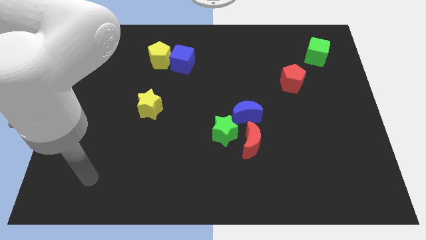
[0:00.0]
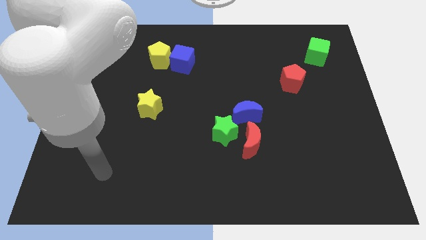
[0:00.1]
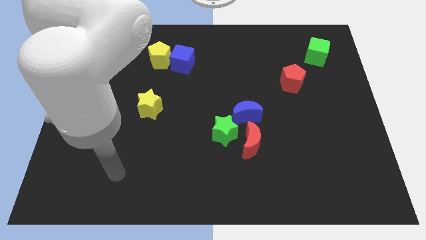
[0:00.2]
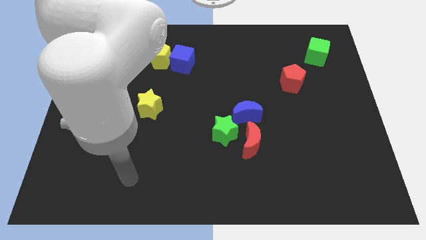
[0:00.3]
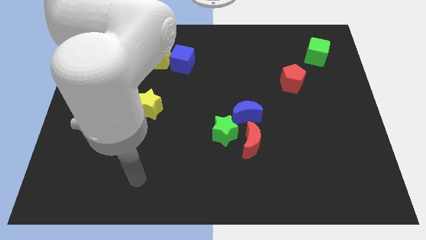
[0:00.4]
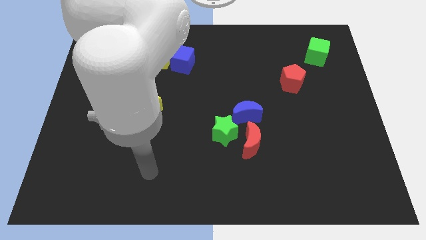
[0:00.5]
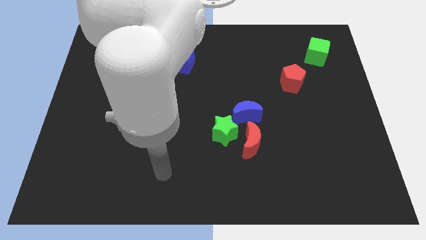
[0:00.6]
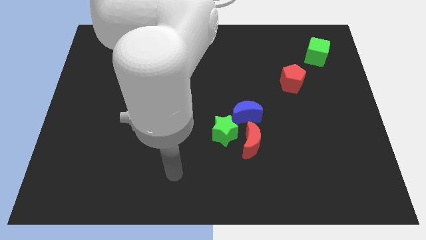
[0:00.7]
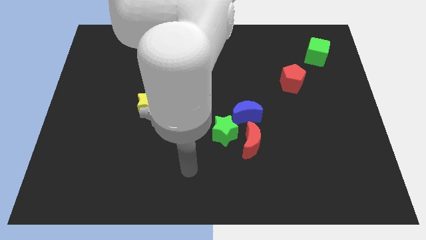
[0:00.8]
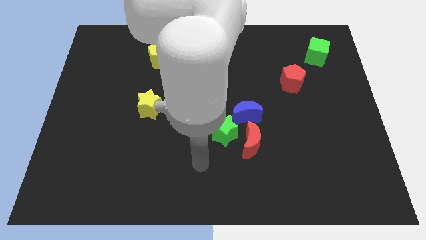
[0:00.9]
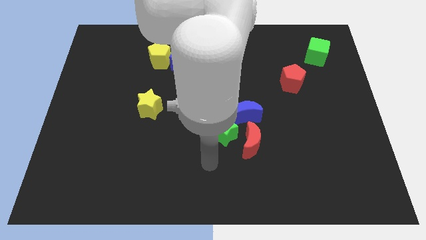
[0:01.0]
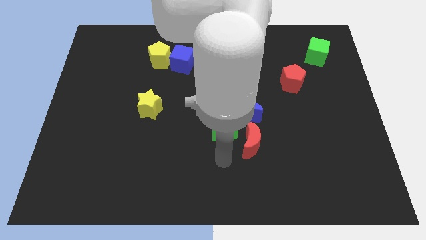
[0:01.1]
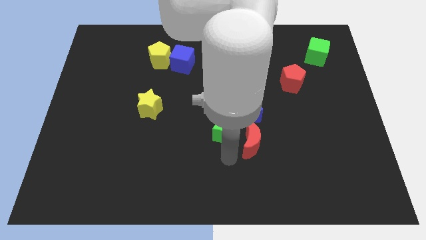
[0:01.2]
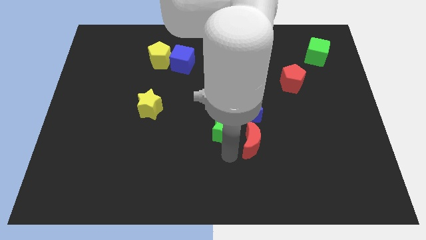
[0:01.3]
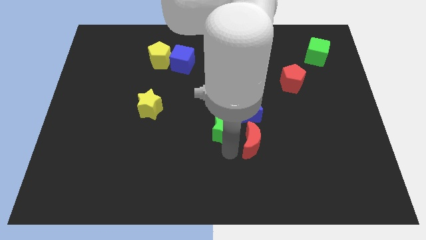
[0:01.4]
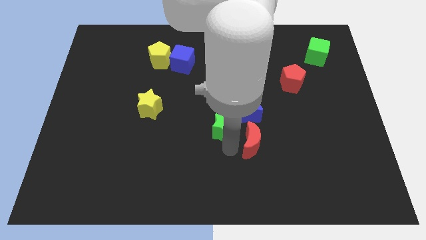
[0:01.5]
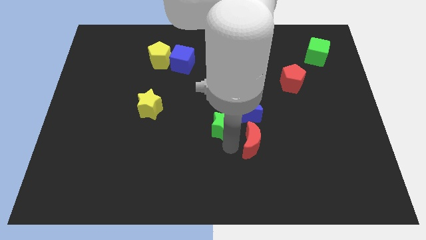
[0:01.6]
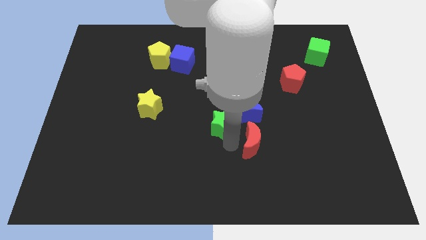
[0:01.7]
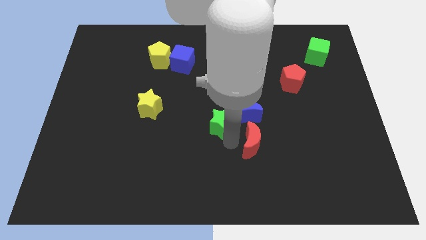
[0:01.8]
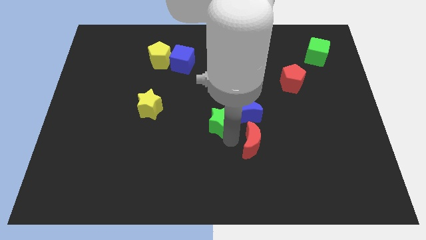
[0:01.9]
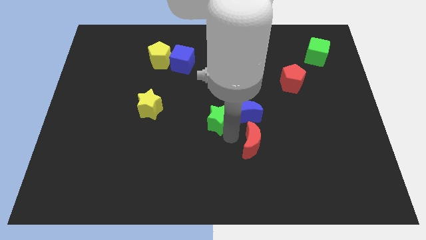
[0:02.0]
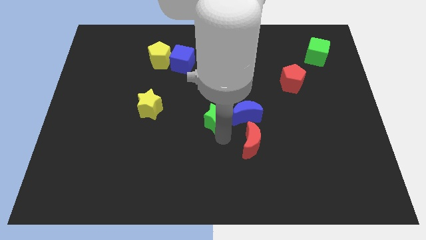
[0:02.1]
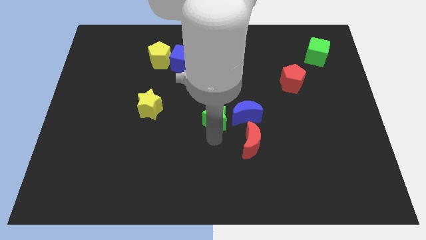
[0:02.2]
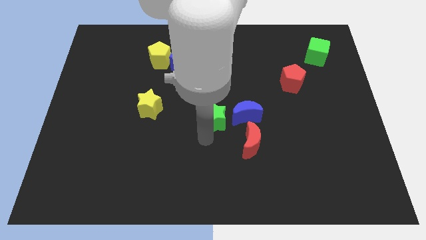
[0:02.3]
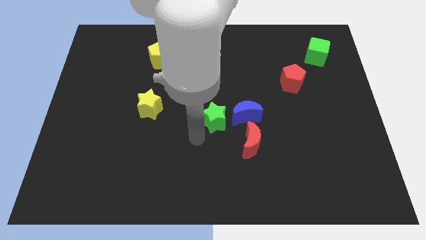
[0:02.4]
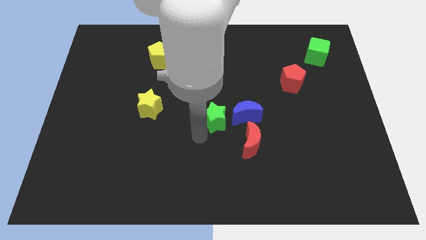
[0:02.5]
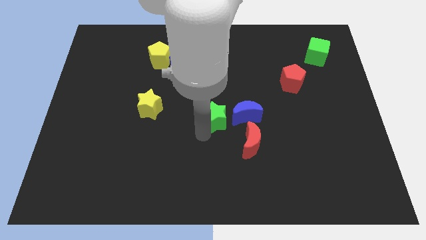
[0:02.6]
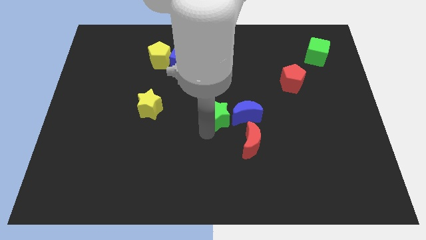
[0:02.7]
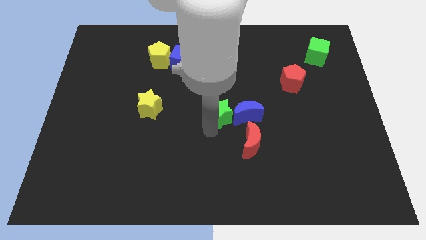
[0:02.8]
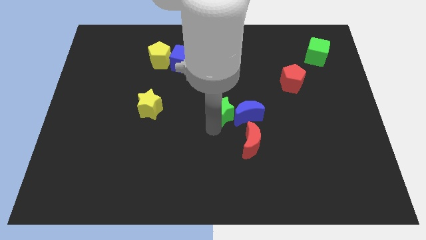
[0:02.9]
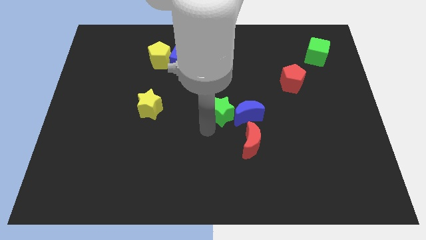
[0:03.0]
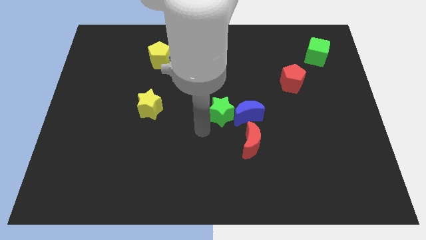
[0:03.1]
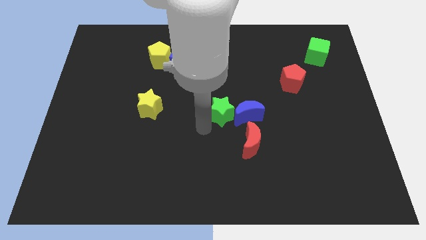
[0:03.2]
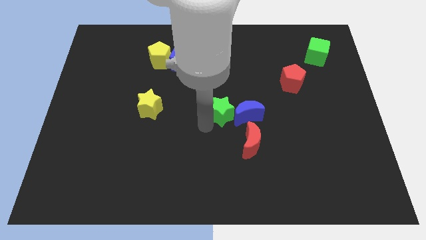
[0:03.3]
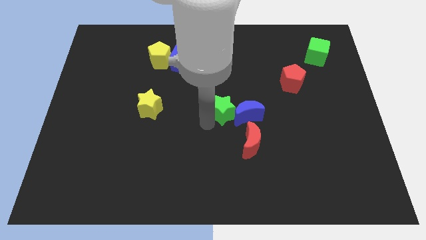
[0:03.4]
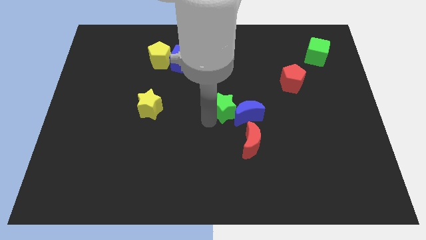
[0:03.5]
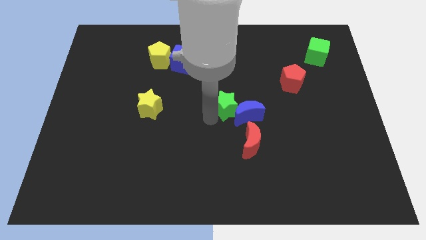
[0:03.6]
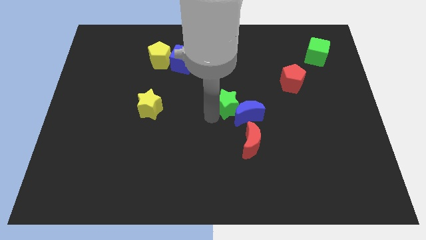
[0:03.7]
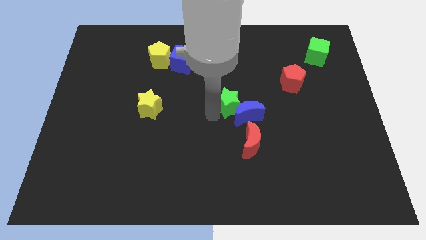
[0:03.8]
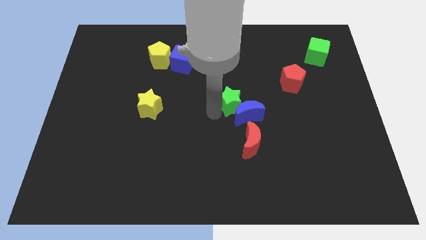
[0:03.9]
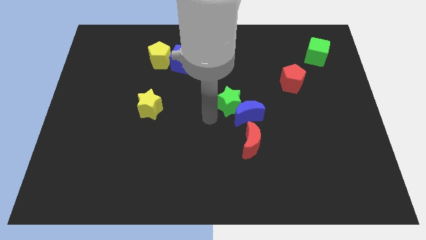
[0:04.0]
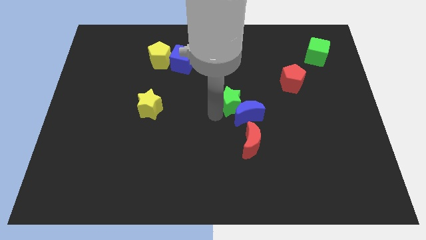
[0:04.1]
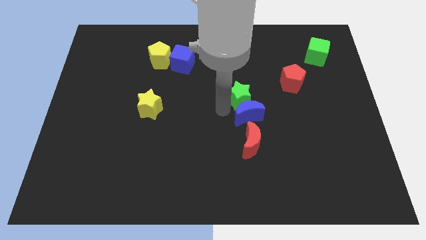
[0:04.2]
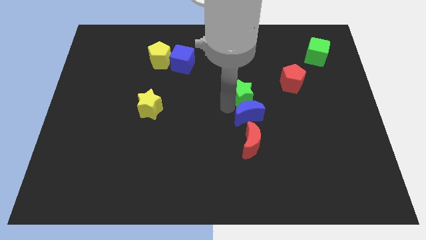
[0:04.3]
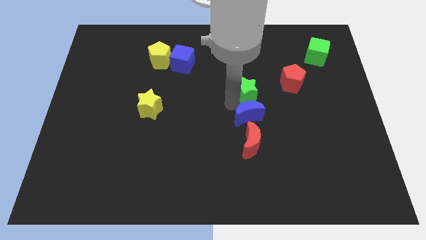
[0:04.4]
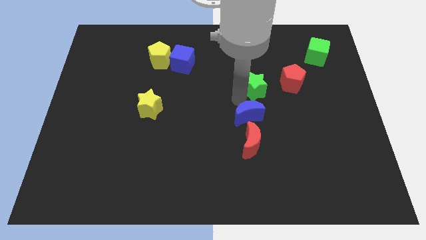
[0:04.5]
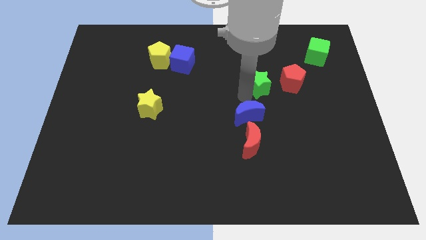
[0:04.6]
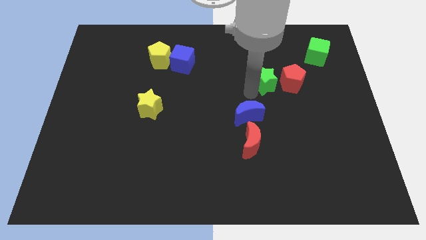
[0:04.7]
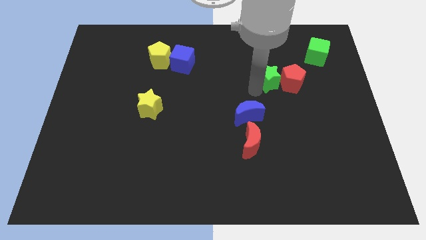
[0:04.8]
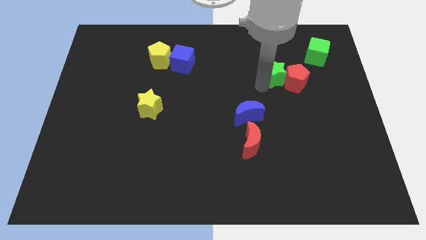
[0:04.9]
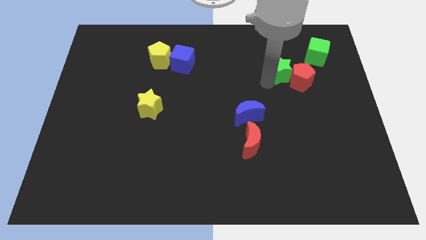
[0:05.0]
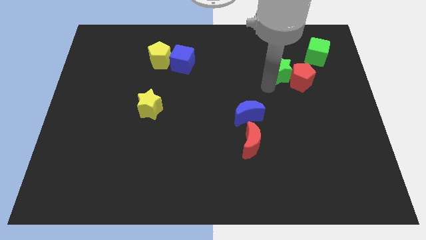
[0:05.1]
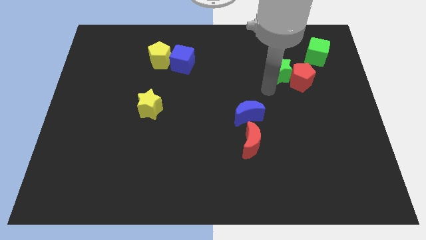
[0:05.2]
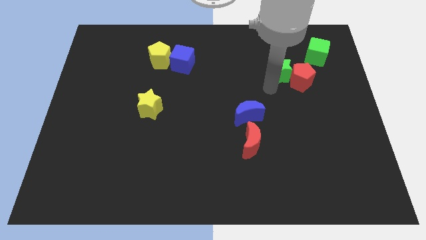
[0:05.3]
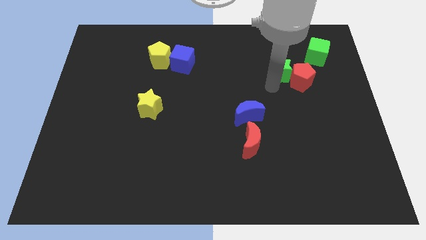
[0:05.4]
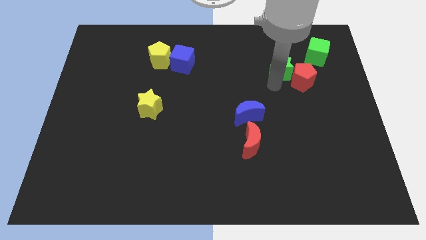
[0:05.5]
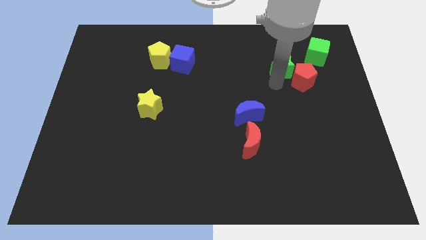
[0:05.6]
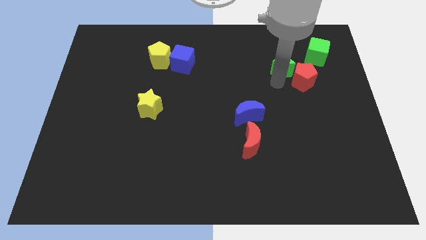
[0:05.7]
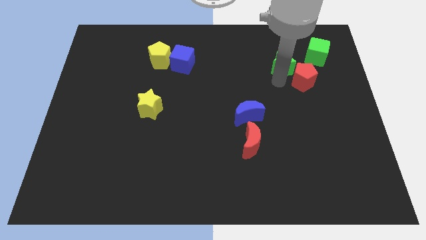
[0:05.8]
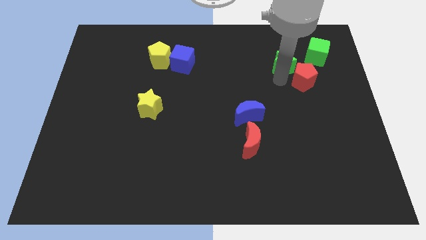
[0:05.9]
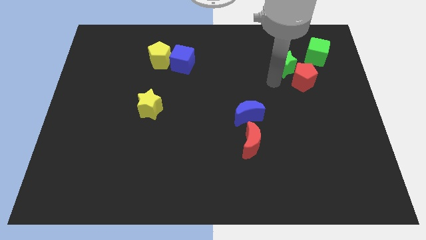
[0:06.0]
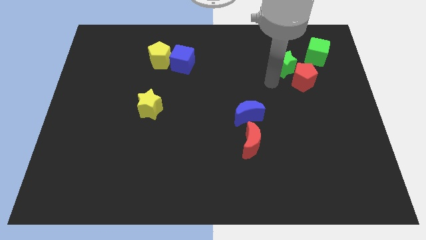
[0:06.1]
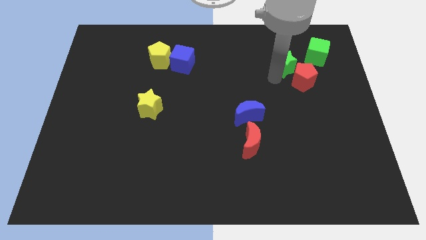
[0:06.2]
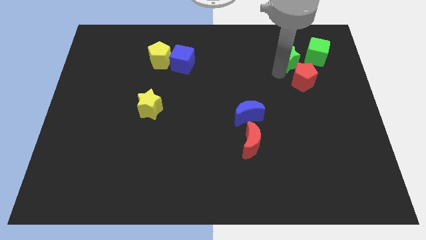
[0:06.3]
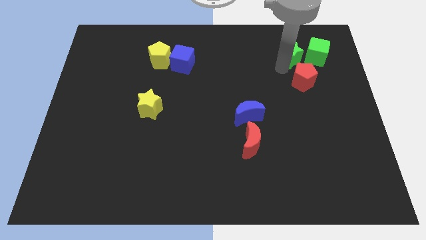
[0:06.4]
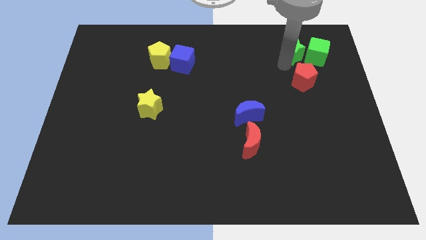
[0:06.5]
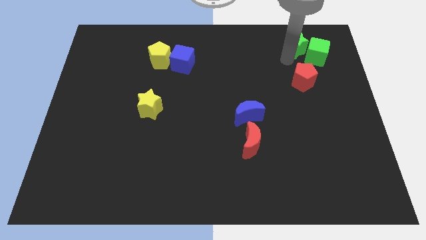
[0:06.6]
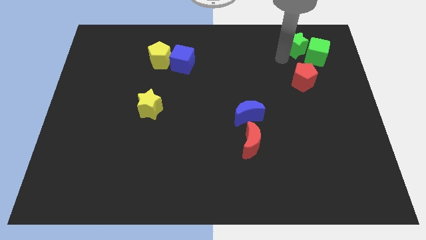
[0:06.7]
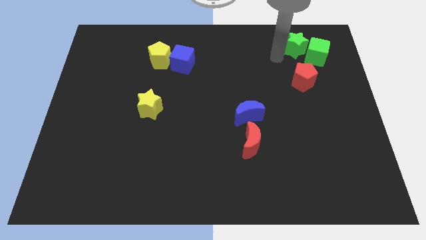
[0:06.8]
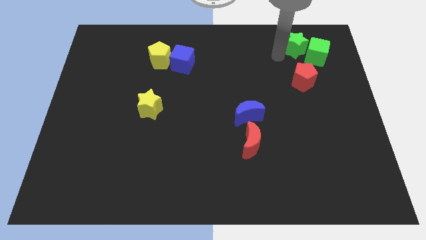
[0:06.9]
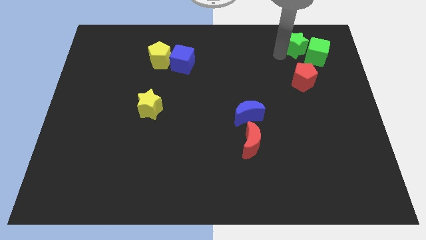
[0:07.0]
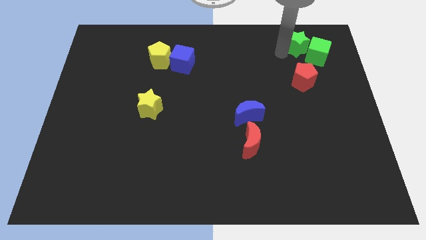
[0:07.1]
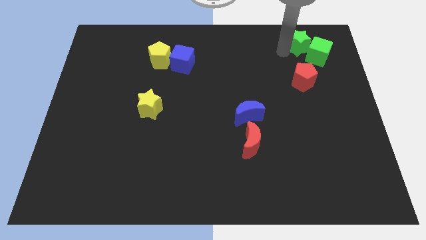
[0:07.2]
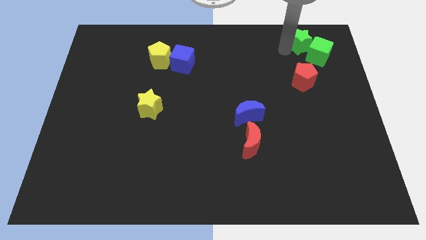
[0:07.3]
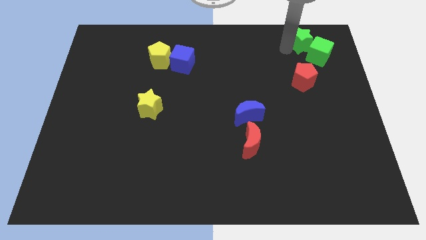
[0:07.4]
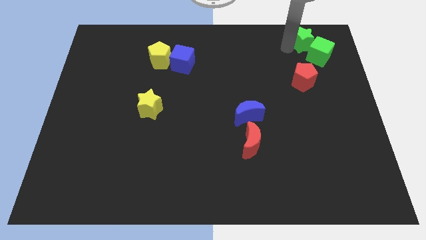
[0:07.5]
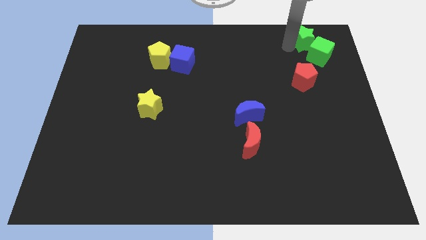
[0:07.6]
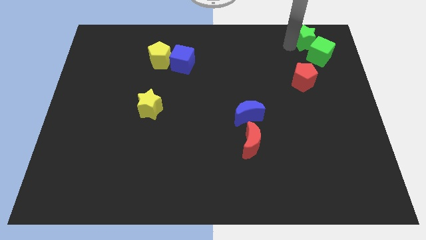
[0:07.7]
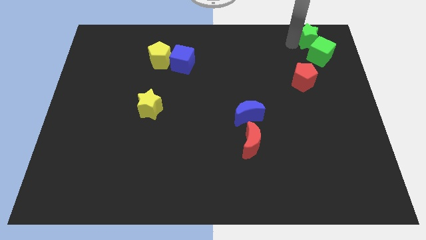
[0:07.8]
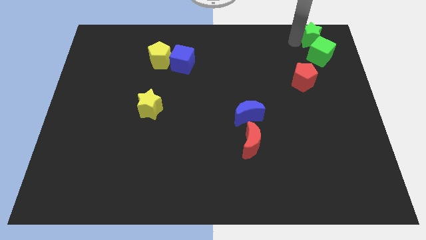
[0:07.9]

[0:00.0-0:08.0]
push the green star to the top right
